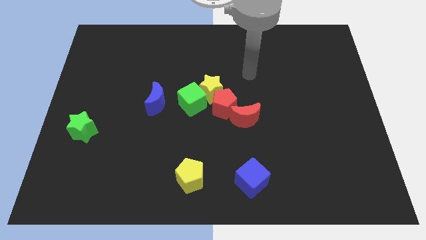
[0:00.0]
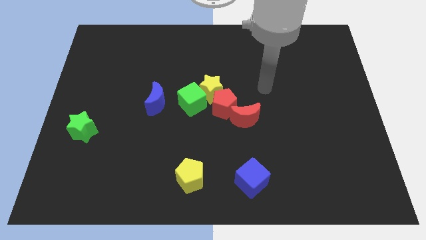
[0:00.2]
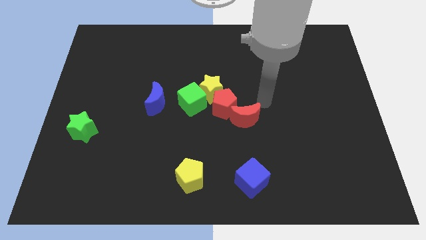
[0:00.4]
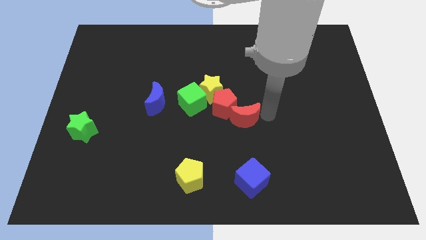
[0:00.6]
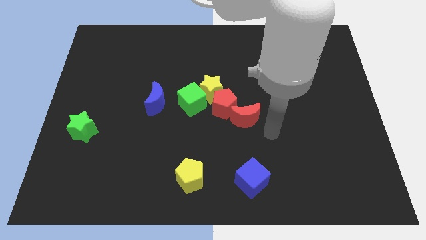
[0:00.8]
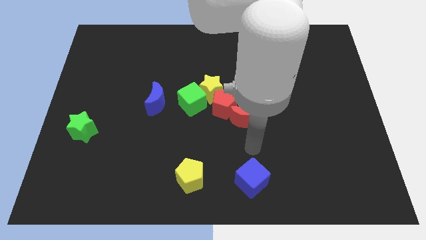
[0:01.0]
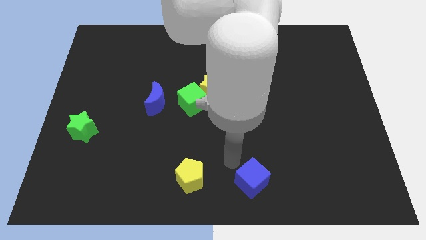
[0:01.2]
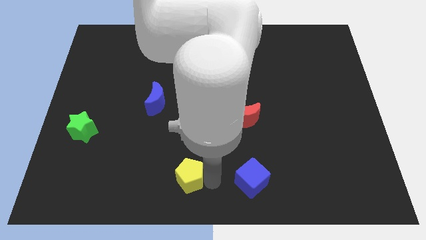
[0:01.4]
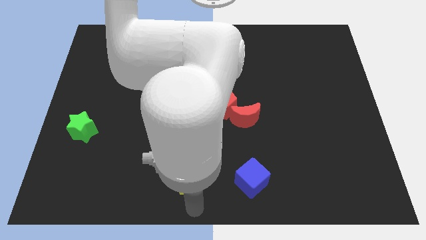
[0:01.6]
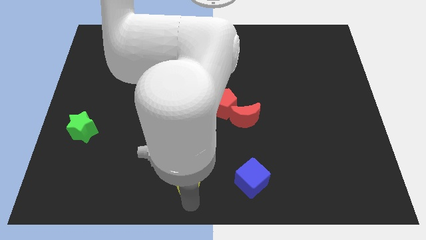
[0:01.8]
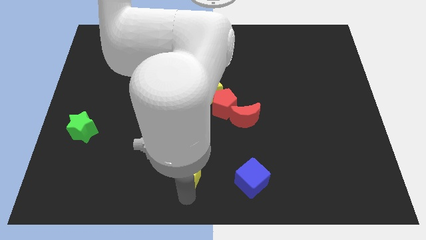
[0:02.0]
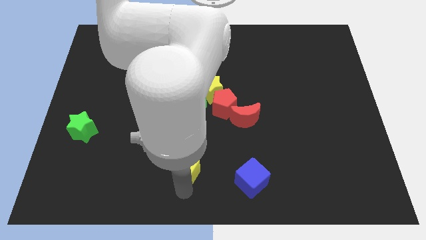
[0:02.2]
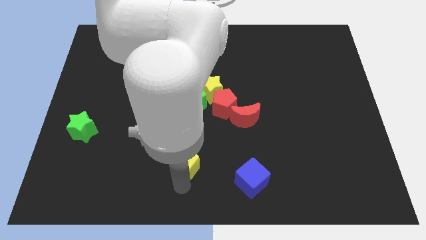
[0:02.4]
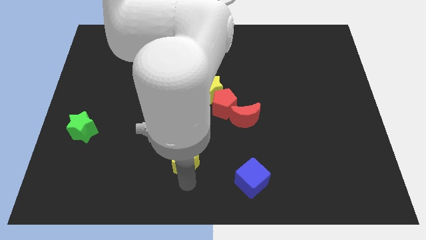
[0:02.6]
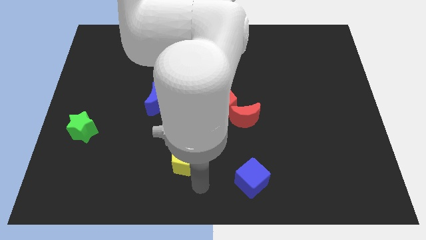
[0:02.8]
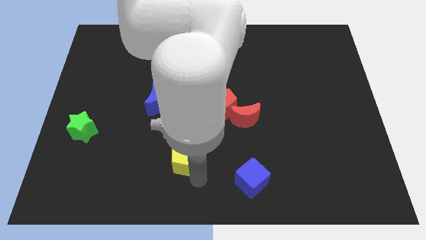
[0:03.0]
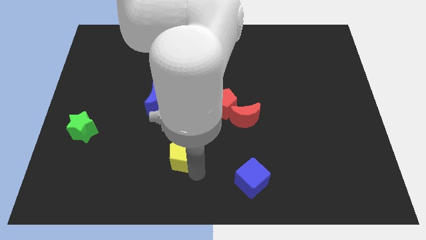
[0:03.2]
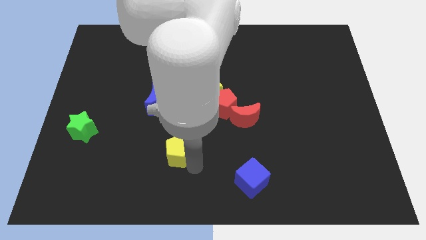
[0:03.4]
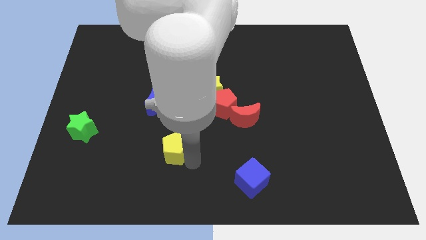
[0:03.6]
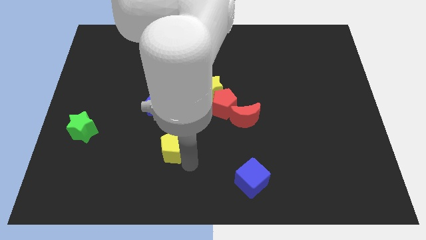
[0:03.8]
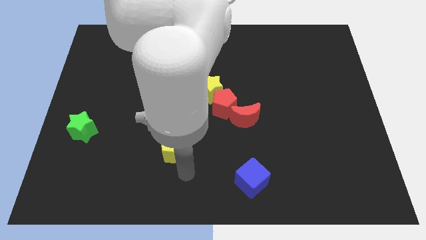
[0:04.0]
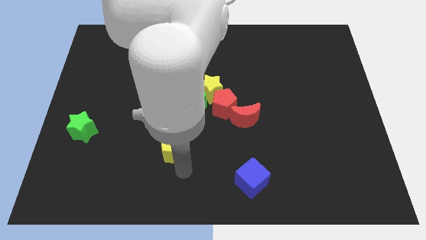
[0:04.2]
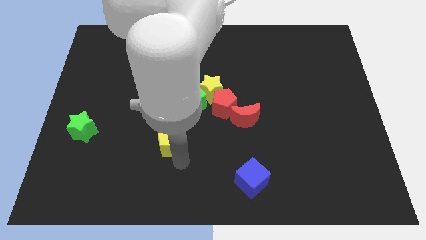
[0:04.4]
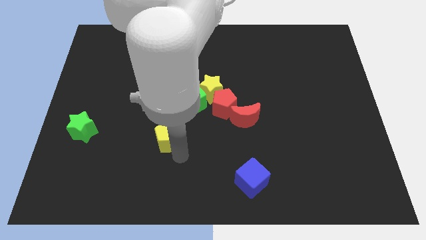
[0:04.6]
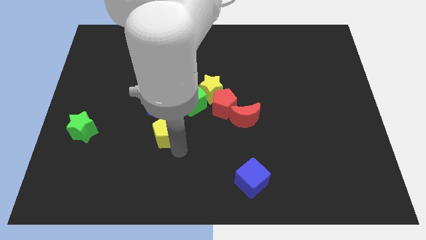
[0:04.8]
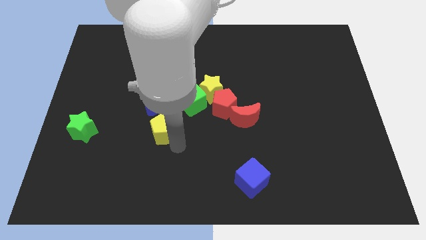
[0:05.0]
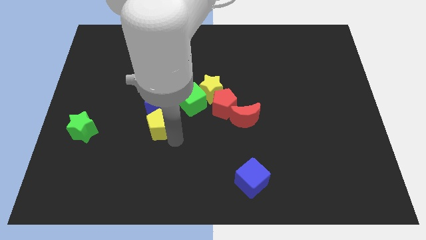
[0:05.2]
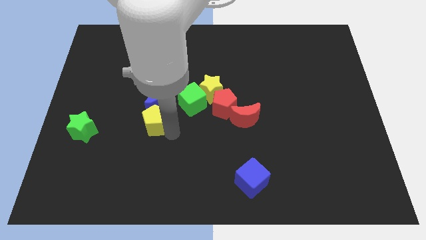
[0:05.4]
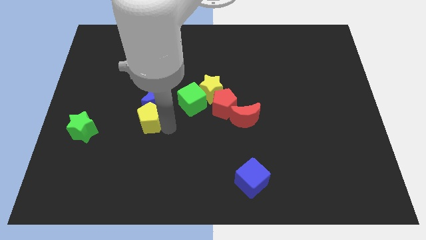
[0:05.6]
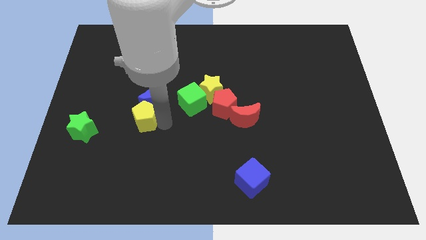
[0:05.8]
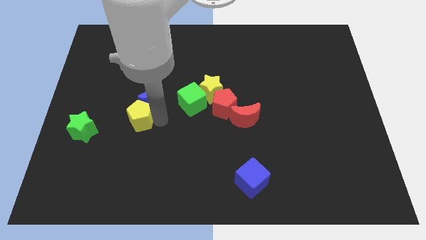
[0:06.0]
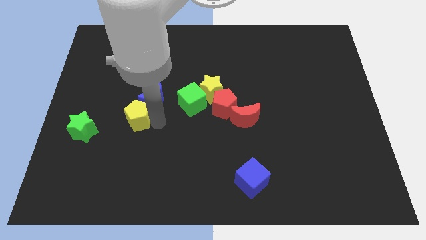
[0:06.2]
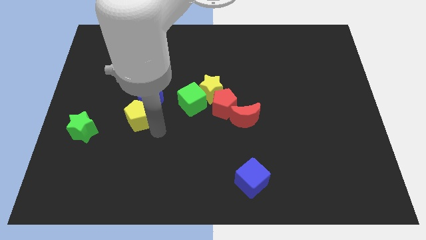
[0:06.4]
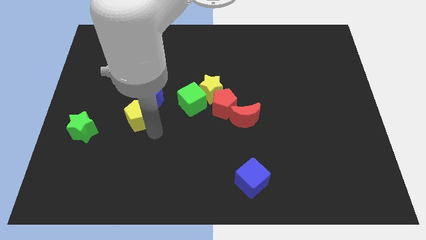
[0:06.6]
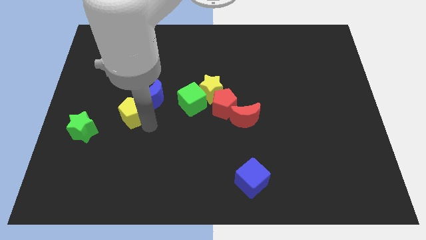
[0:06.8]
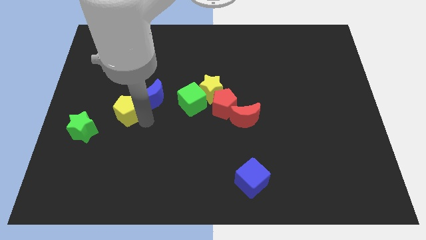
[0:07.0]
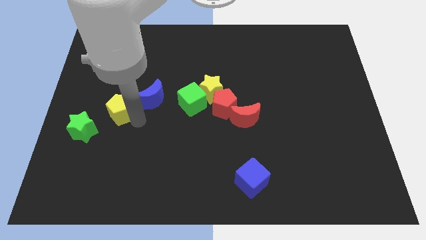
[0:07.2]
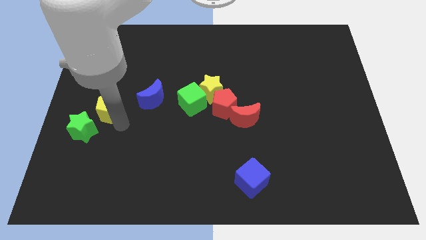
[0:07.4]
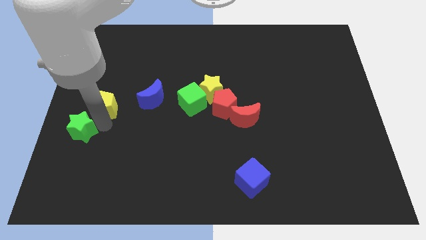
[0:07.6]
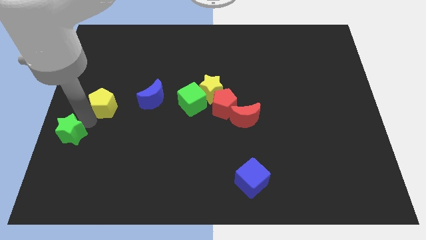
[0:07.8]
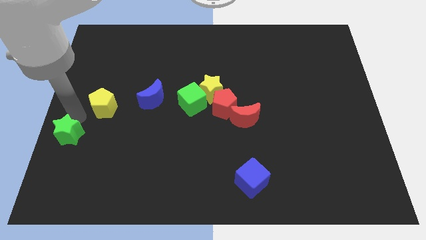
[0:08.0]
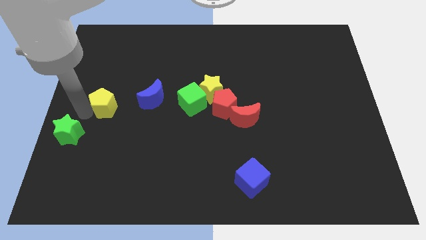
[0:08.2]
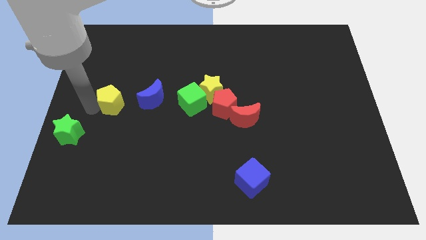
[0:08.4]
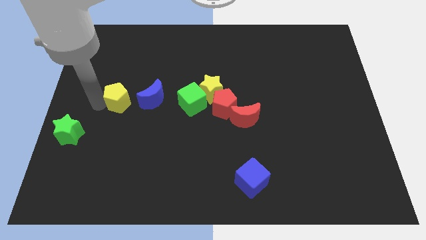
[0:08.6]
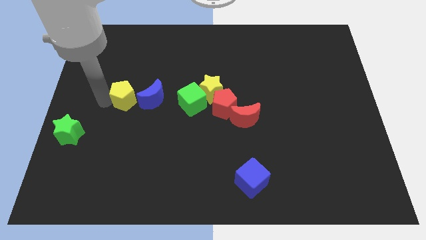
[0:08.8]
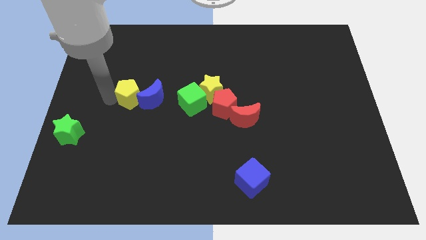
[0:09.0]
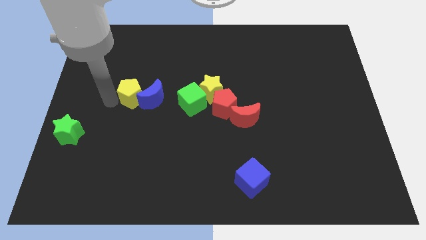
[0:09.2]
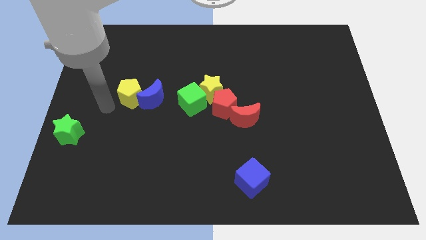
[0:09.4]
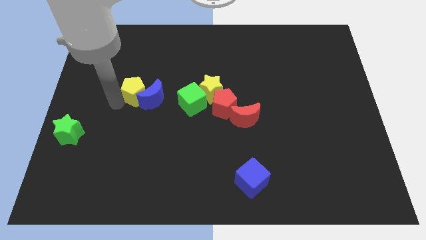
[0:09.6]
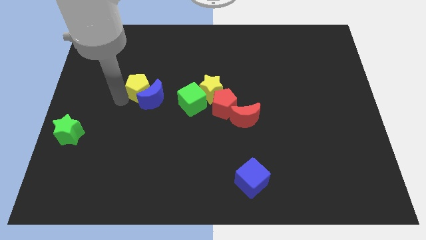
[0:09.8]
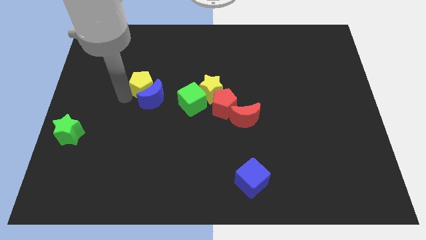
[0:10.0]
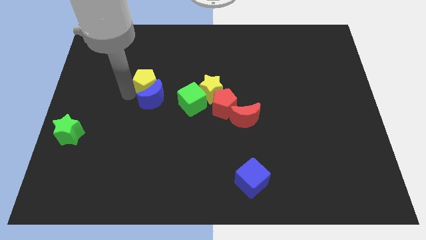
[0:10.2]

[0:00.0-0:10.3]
slide the yellow pentagon to the top right of the blue moon

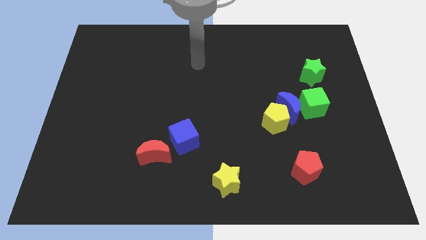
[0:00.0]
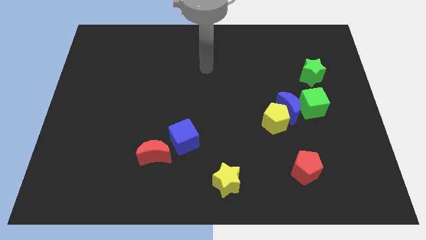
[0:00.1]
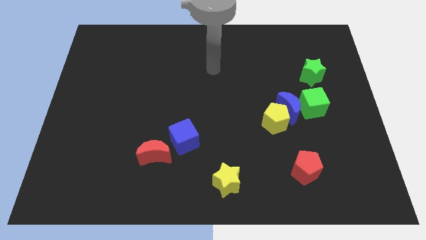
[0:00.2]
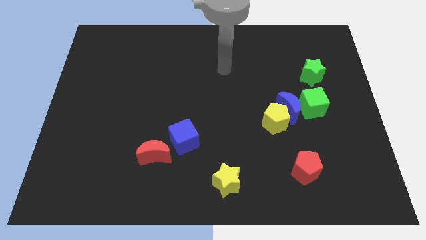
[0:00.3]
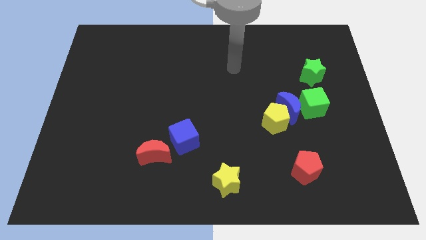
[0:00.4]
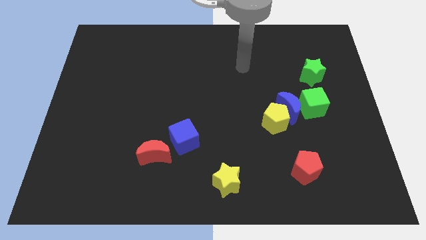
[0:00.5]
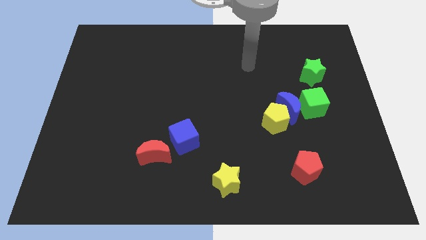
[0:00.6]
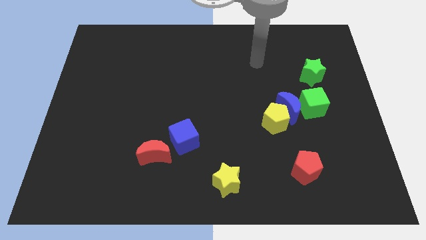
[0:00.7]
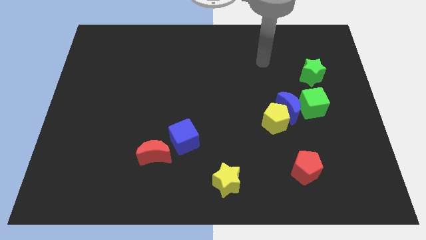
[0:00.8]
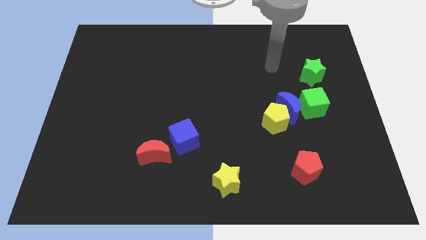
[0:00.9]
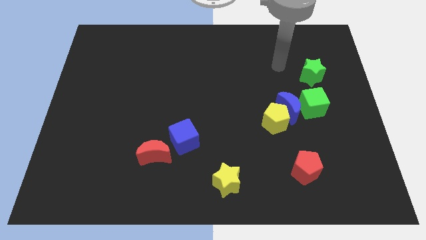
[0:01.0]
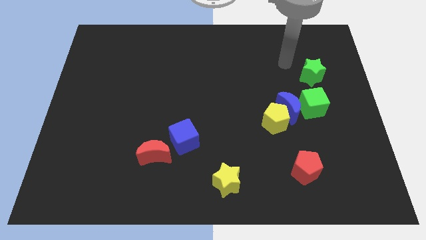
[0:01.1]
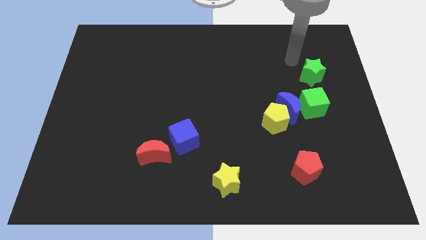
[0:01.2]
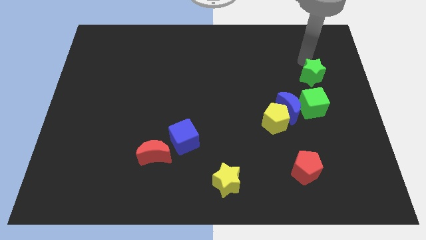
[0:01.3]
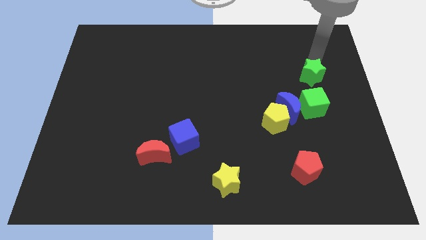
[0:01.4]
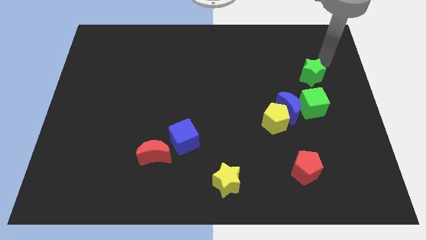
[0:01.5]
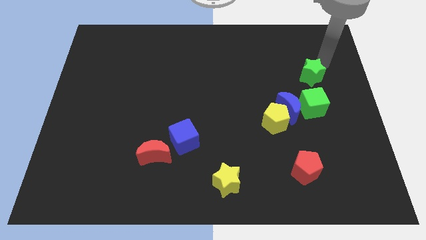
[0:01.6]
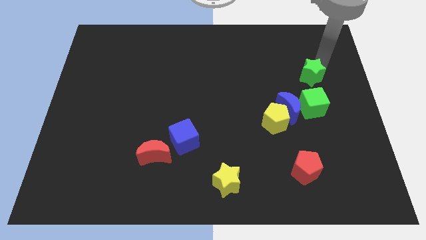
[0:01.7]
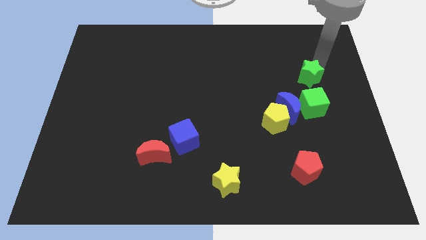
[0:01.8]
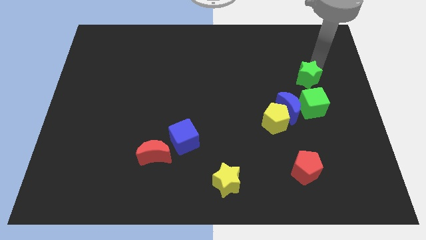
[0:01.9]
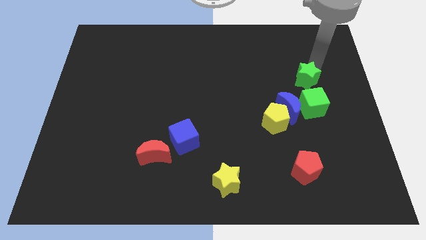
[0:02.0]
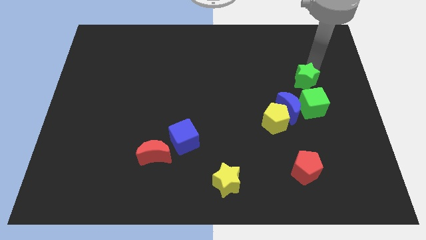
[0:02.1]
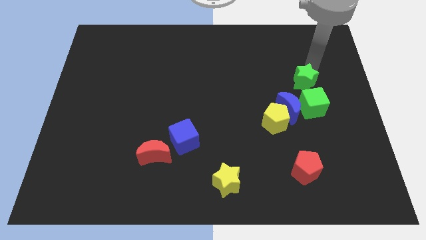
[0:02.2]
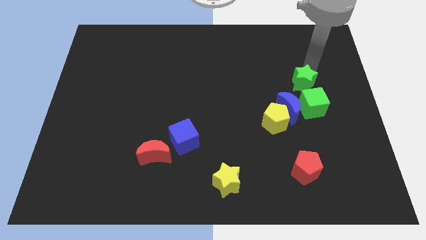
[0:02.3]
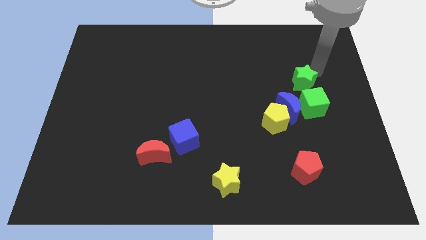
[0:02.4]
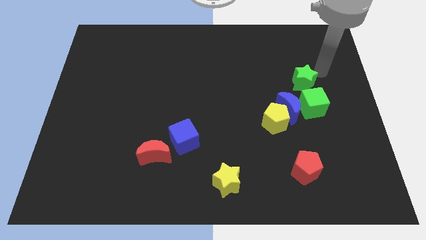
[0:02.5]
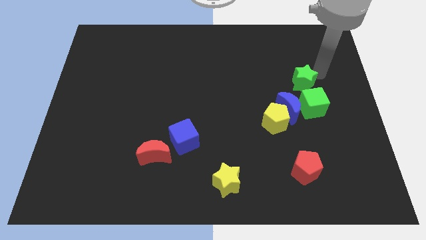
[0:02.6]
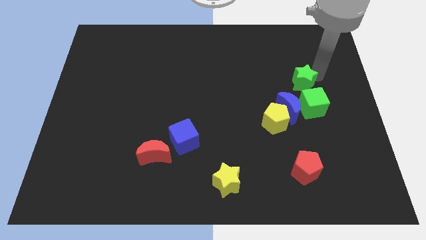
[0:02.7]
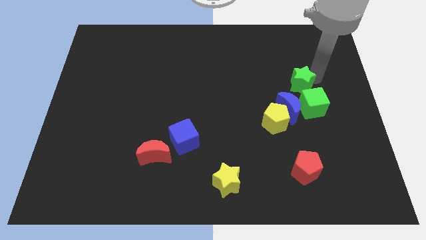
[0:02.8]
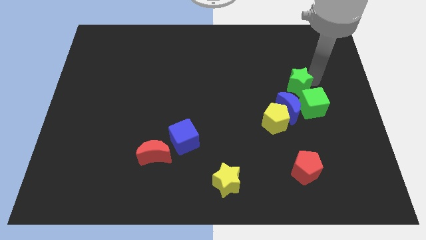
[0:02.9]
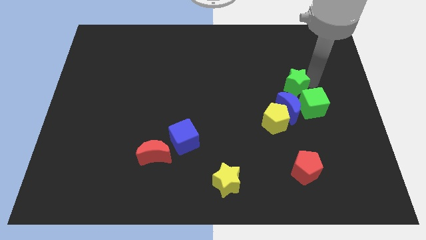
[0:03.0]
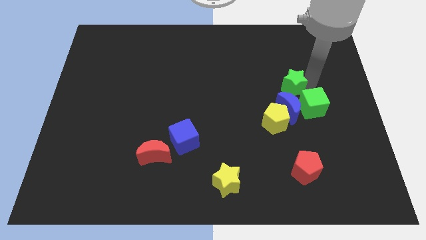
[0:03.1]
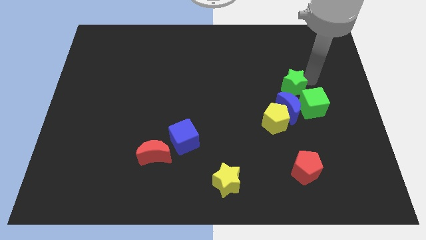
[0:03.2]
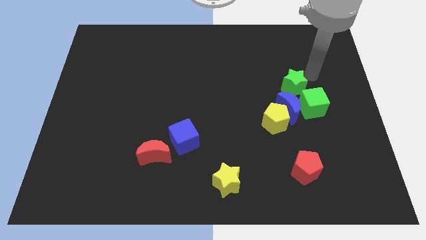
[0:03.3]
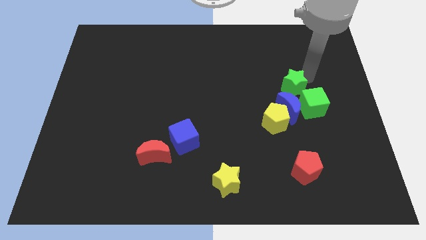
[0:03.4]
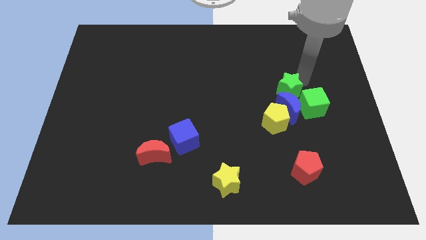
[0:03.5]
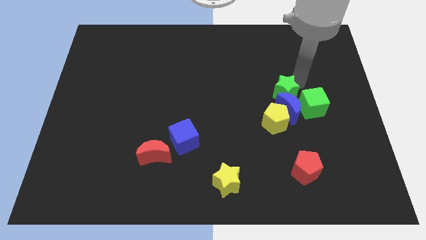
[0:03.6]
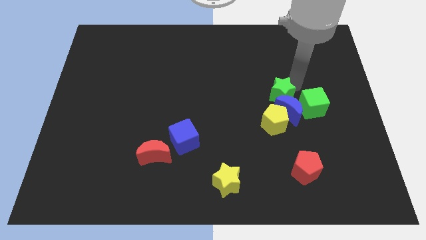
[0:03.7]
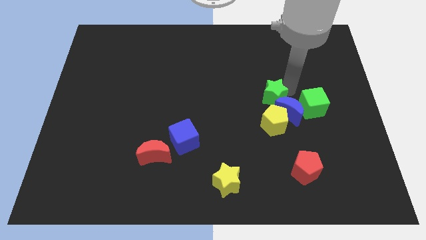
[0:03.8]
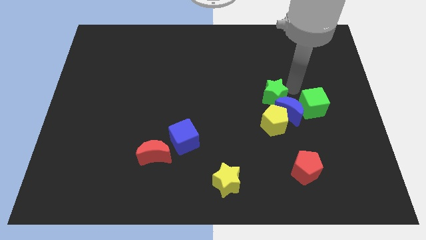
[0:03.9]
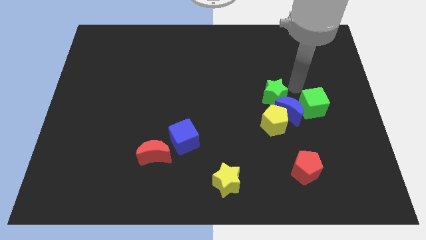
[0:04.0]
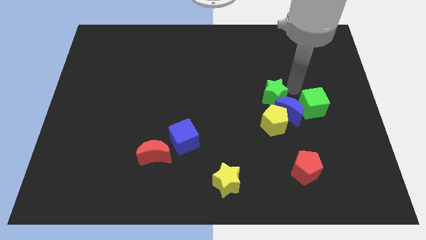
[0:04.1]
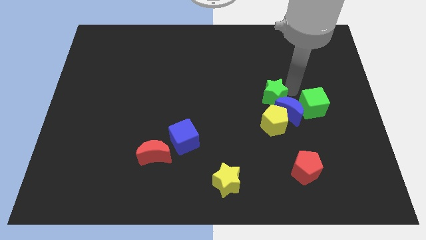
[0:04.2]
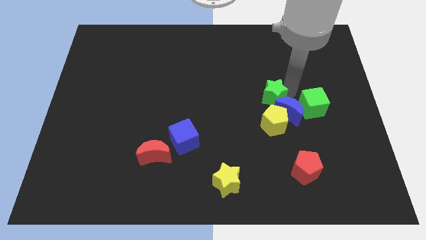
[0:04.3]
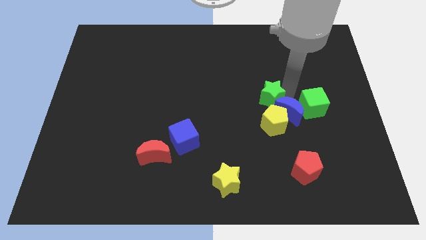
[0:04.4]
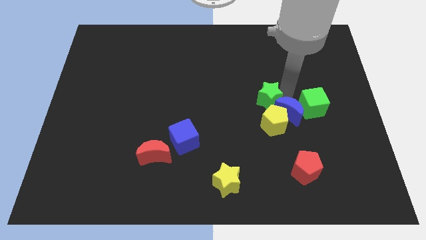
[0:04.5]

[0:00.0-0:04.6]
put the green star diagonally up and to the left of the yellow pentagon
